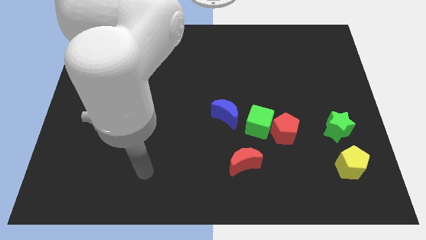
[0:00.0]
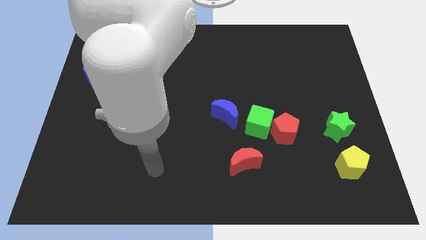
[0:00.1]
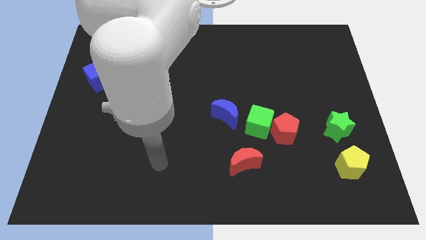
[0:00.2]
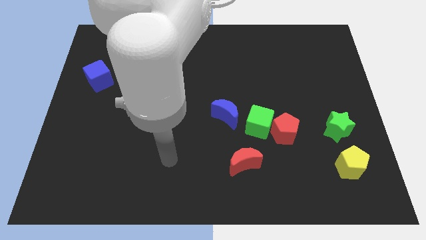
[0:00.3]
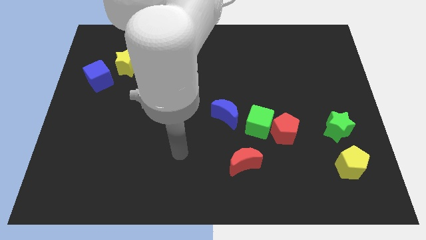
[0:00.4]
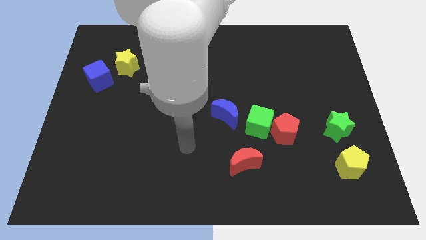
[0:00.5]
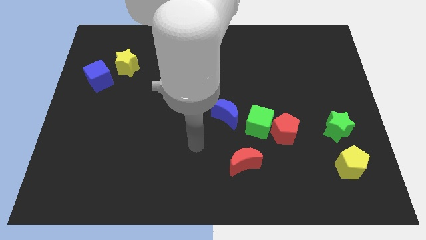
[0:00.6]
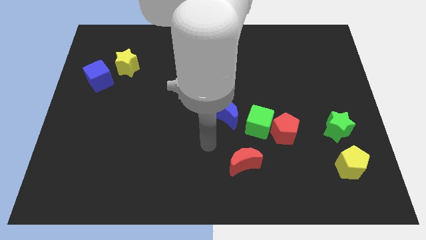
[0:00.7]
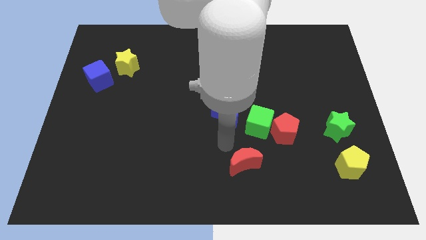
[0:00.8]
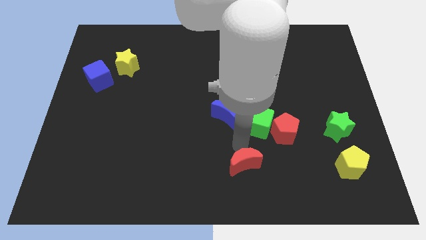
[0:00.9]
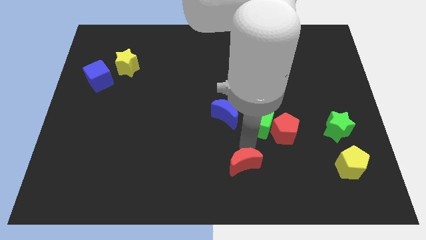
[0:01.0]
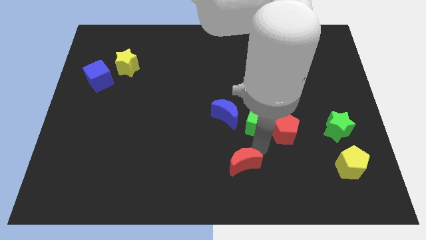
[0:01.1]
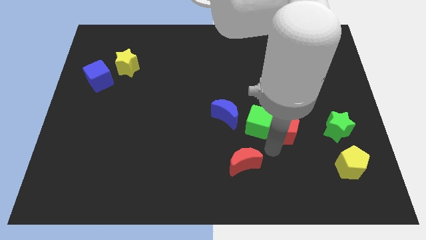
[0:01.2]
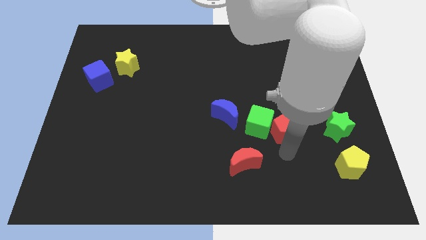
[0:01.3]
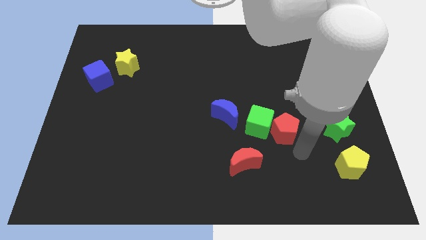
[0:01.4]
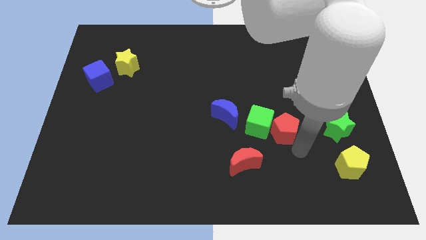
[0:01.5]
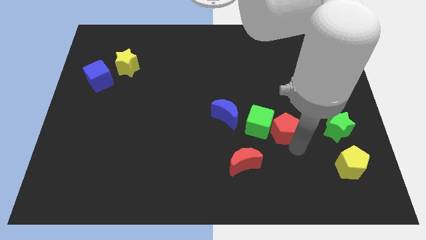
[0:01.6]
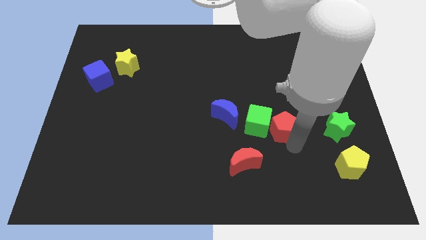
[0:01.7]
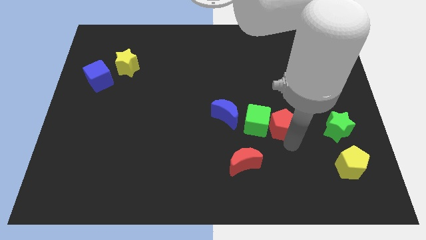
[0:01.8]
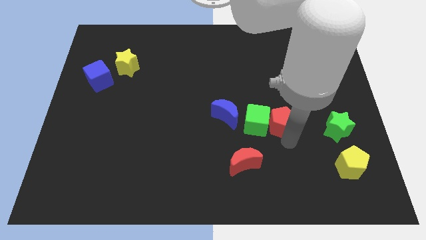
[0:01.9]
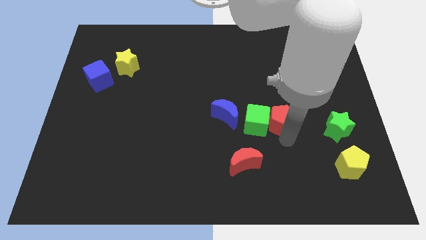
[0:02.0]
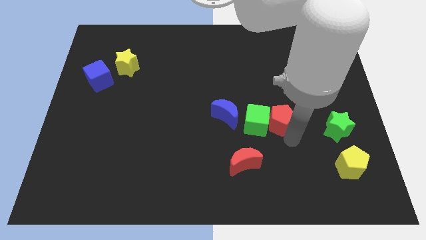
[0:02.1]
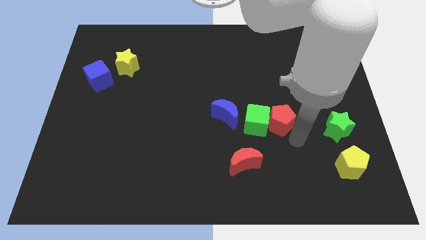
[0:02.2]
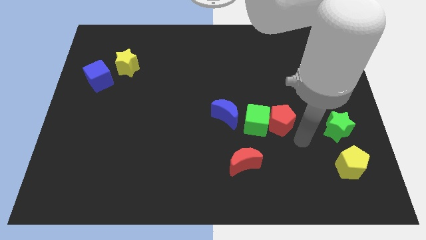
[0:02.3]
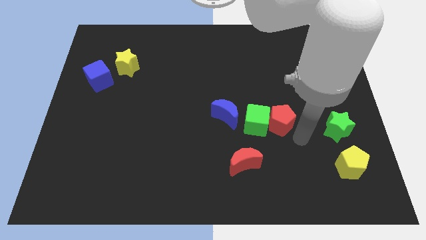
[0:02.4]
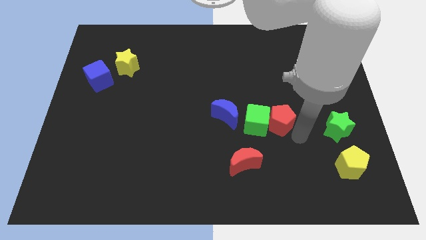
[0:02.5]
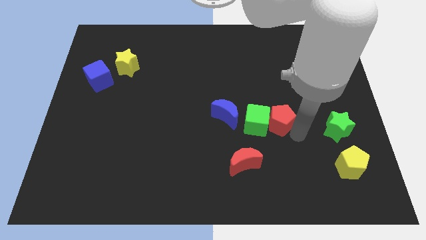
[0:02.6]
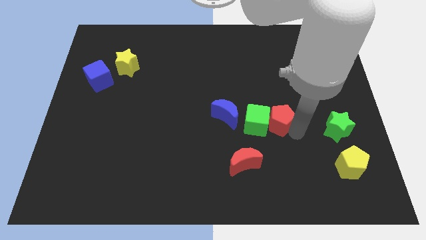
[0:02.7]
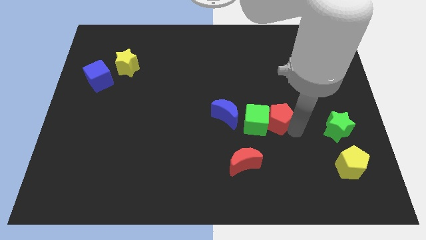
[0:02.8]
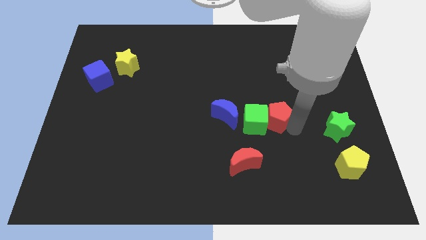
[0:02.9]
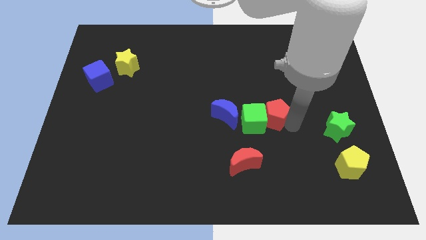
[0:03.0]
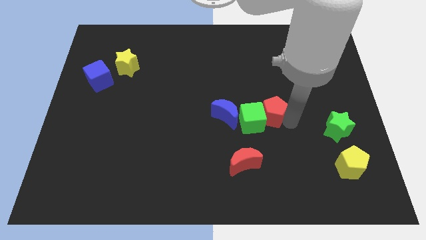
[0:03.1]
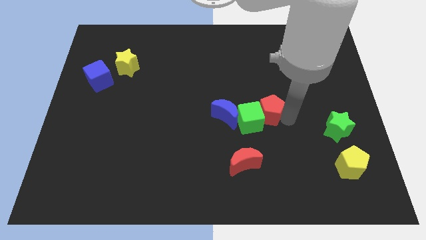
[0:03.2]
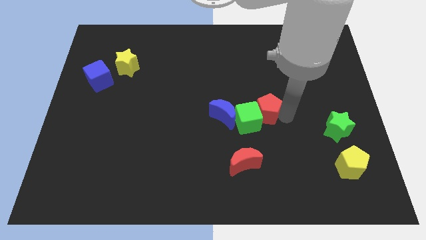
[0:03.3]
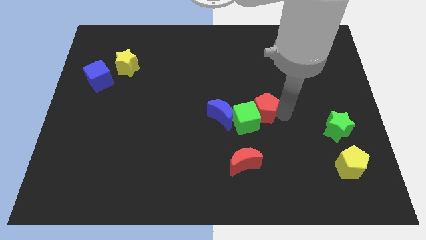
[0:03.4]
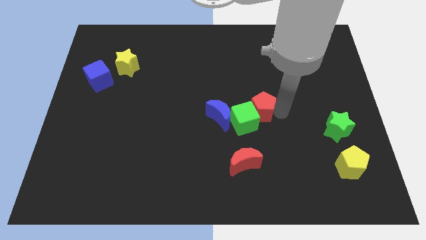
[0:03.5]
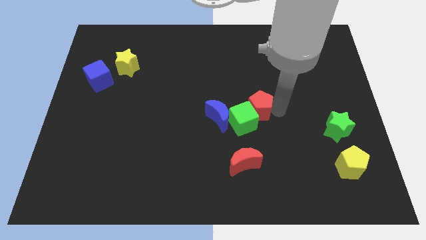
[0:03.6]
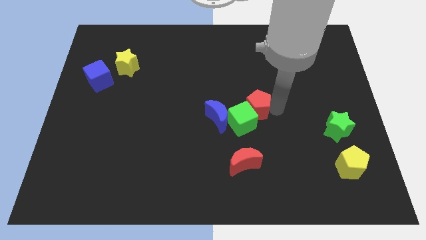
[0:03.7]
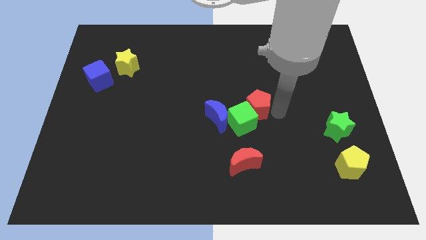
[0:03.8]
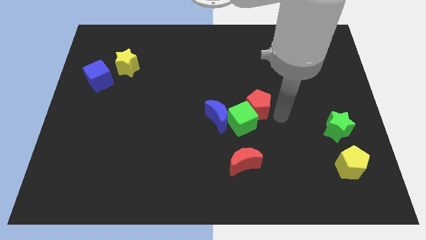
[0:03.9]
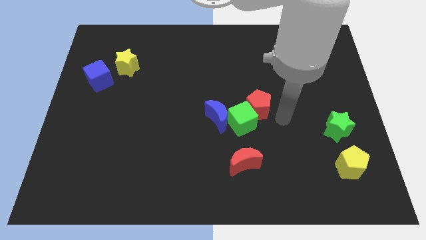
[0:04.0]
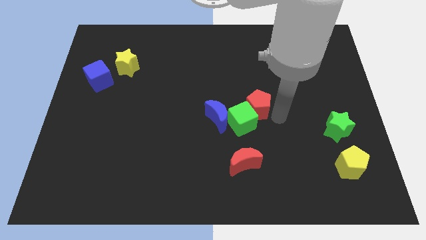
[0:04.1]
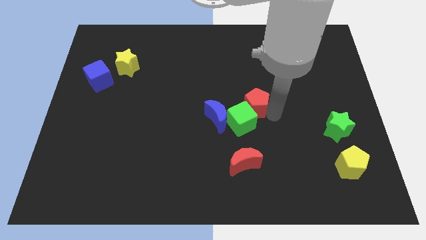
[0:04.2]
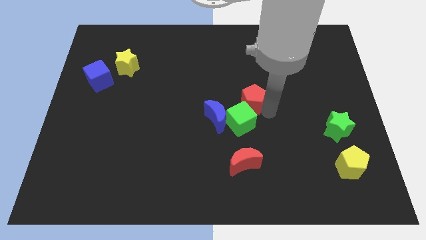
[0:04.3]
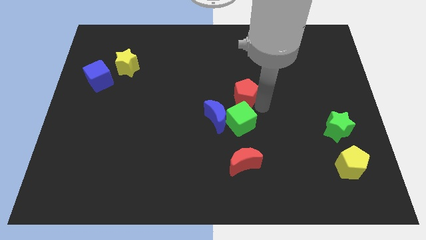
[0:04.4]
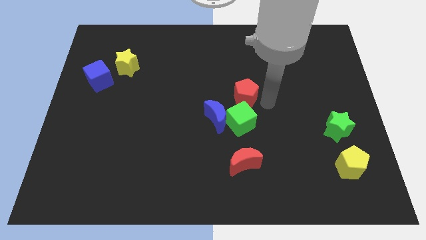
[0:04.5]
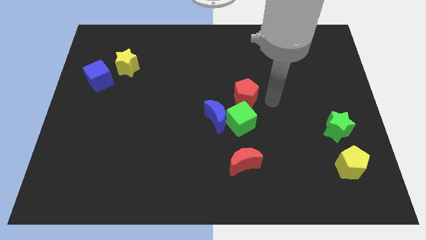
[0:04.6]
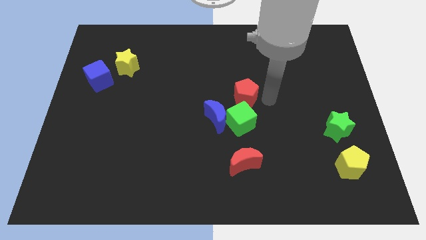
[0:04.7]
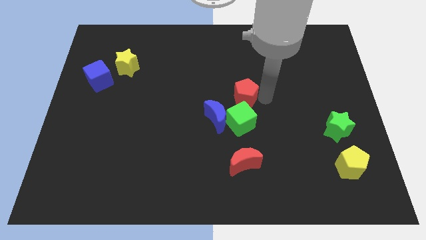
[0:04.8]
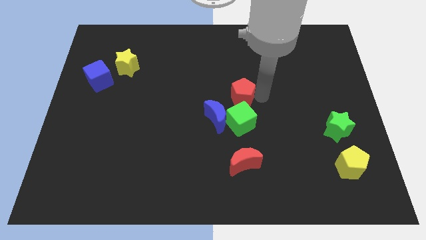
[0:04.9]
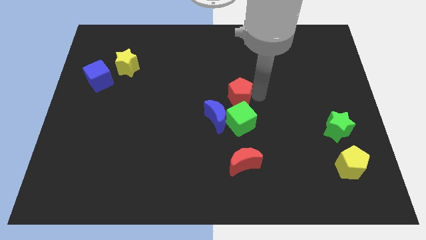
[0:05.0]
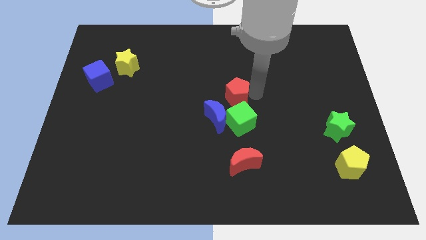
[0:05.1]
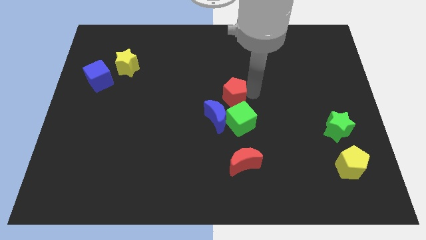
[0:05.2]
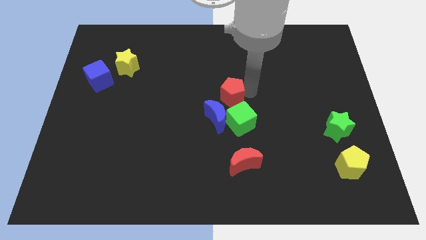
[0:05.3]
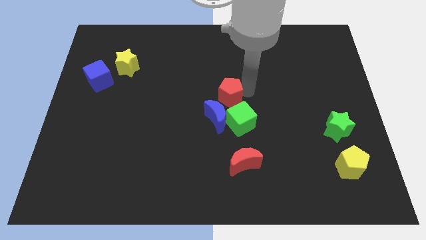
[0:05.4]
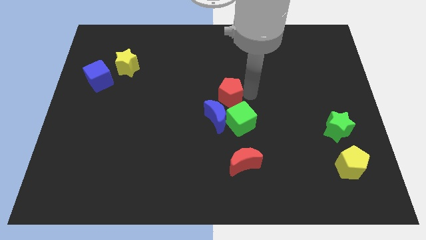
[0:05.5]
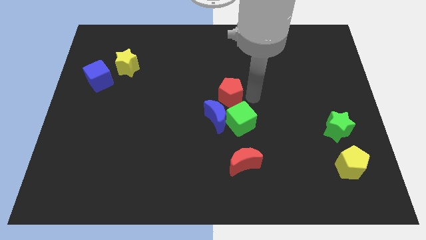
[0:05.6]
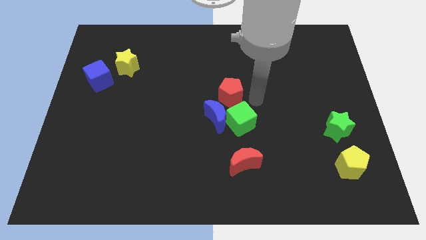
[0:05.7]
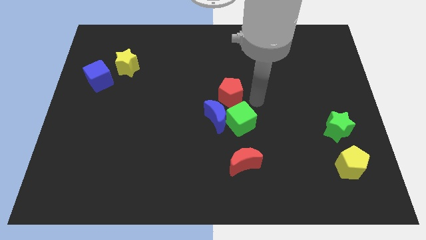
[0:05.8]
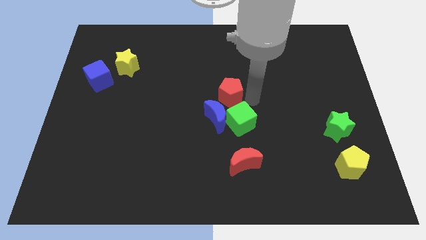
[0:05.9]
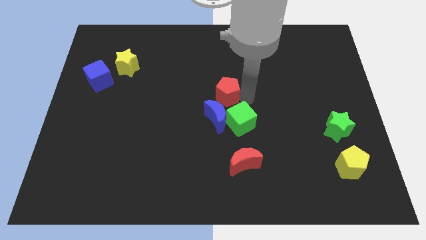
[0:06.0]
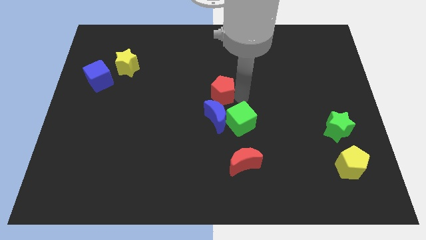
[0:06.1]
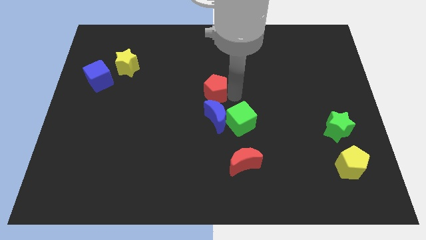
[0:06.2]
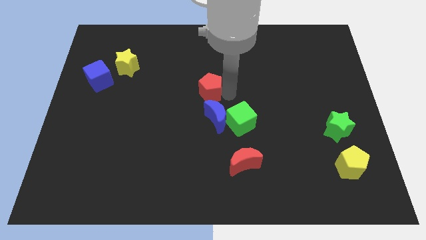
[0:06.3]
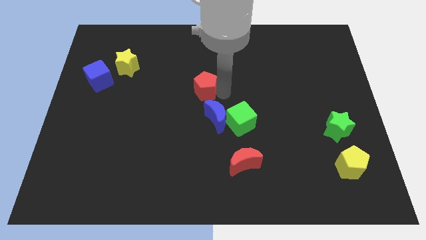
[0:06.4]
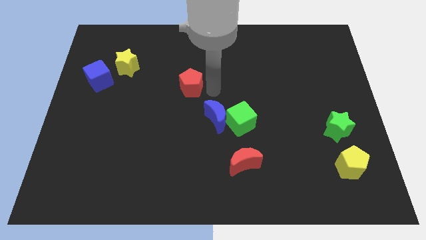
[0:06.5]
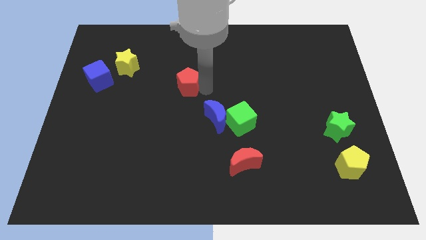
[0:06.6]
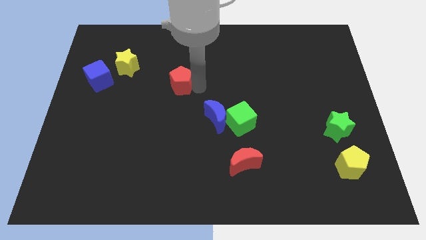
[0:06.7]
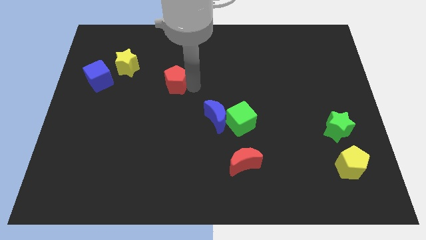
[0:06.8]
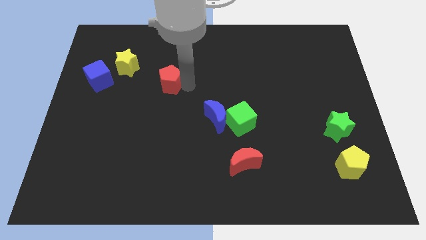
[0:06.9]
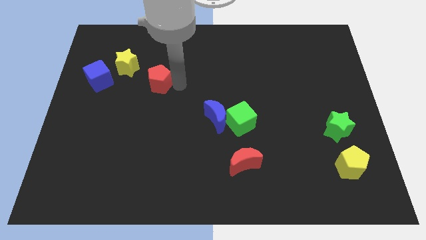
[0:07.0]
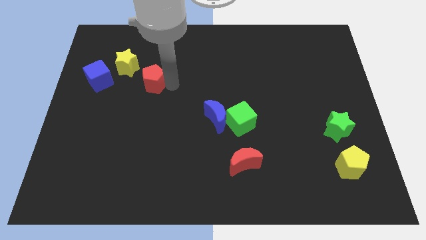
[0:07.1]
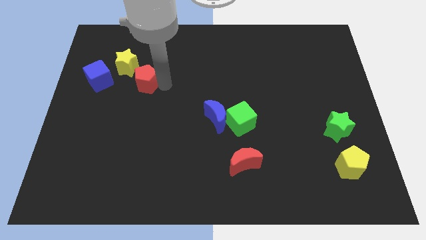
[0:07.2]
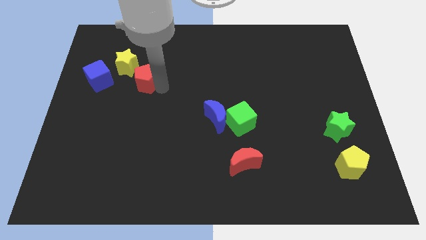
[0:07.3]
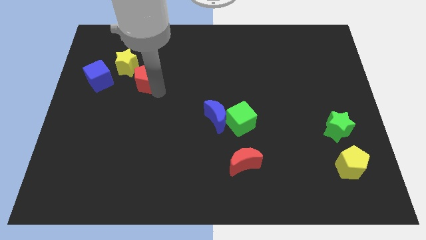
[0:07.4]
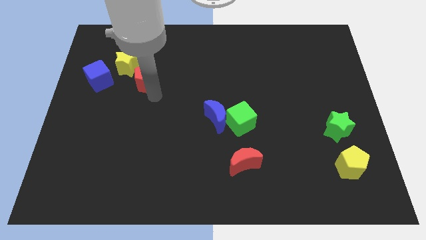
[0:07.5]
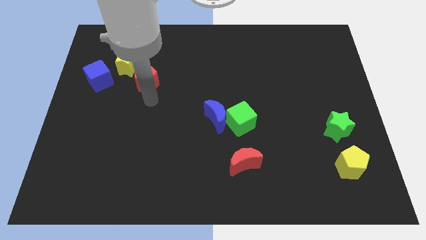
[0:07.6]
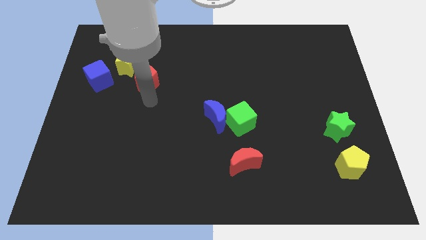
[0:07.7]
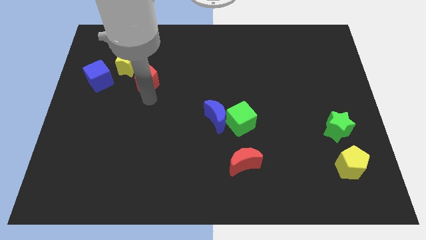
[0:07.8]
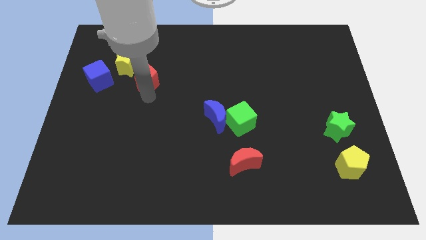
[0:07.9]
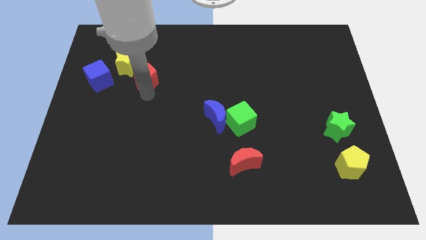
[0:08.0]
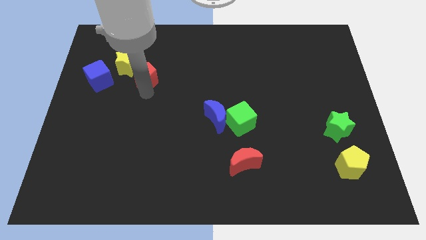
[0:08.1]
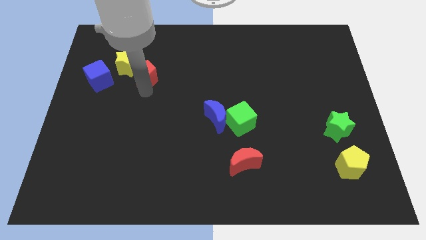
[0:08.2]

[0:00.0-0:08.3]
move the red pentagon towards the yellow star

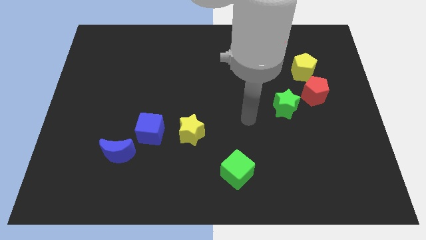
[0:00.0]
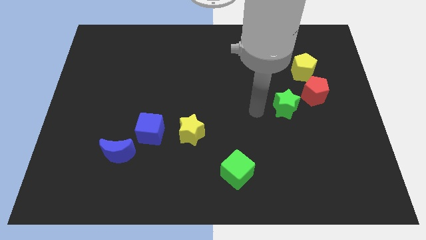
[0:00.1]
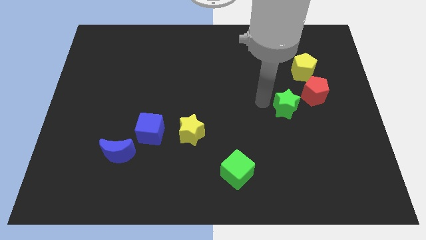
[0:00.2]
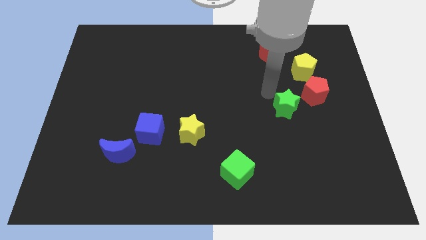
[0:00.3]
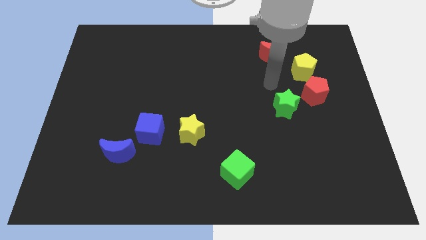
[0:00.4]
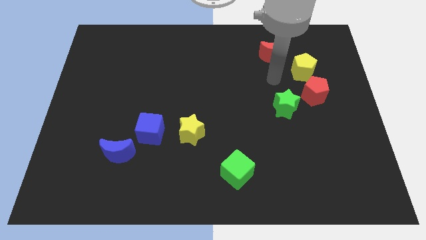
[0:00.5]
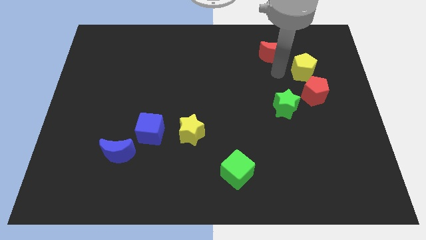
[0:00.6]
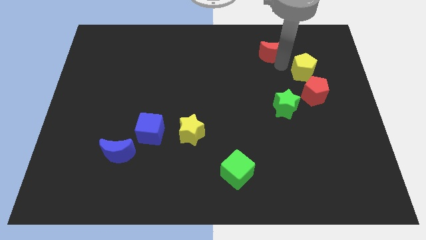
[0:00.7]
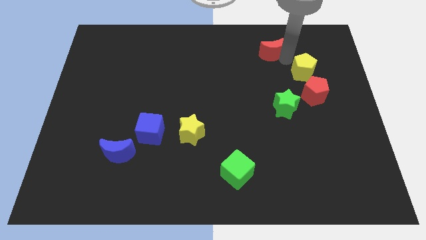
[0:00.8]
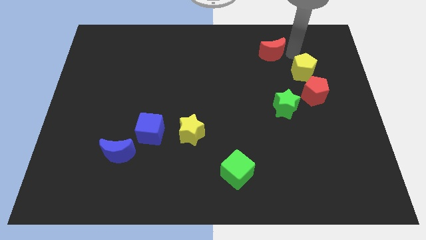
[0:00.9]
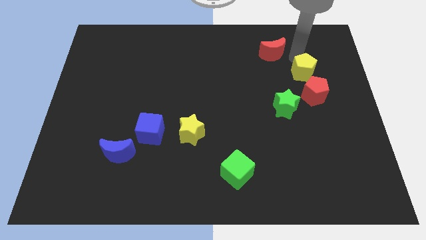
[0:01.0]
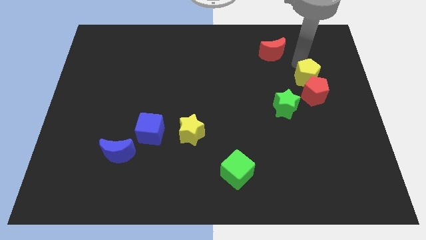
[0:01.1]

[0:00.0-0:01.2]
move the yellow pentagon to the red pentagon
